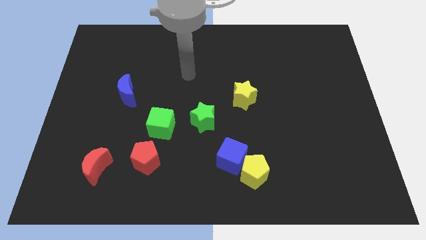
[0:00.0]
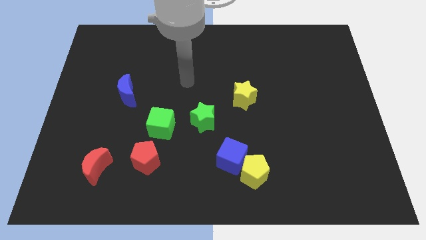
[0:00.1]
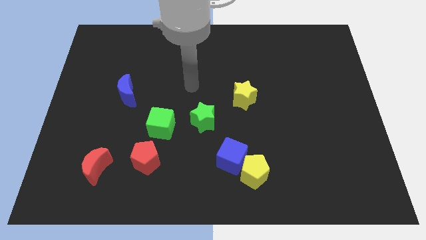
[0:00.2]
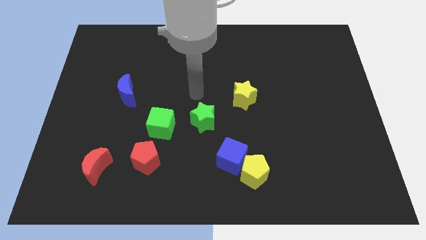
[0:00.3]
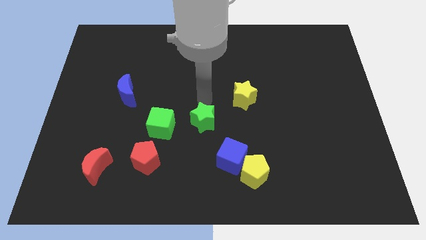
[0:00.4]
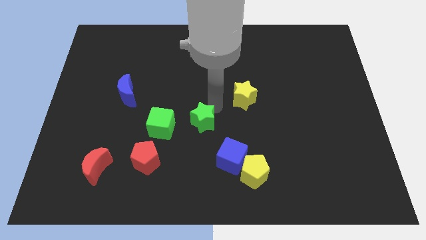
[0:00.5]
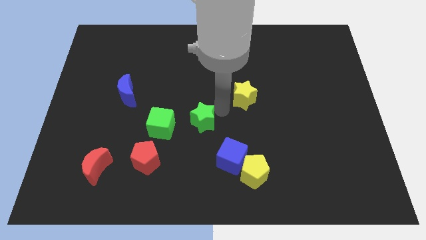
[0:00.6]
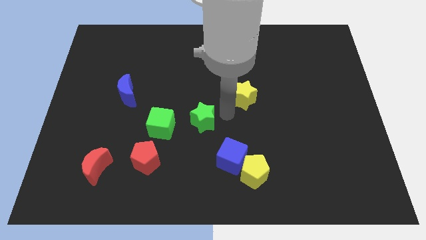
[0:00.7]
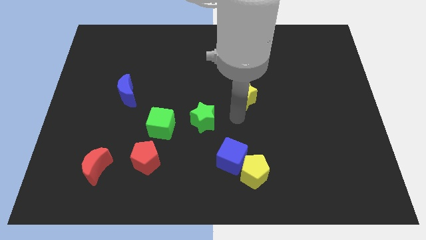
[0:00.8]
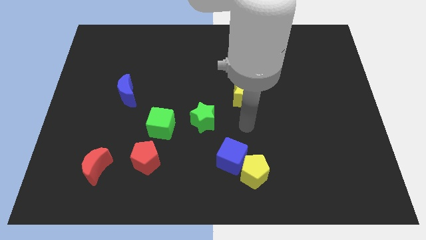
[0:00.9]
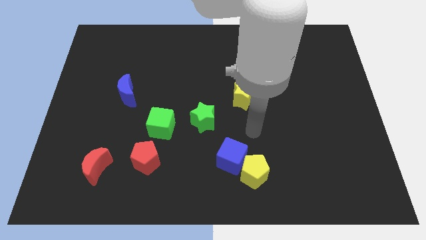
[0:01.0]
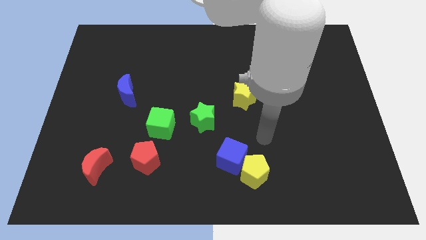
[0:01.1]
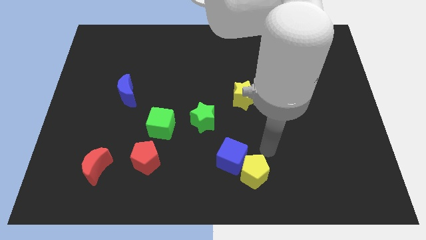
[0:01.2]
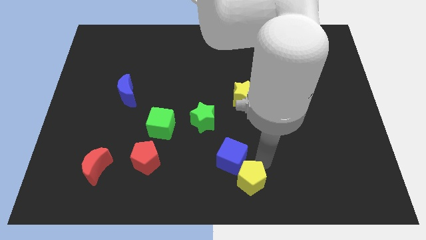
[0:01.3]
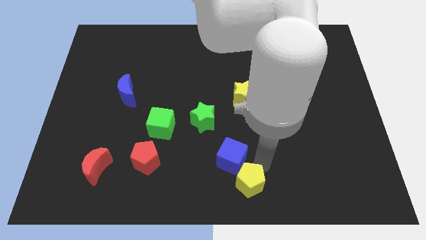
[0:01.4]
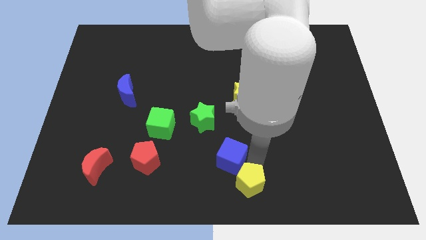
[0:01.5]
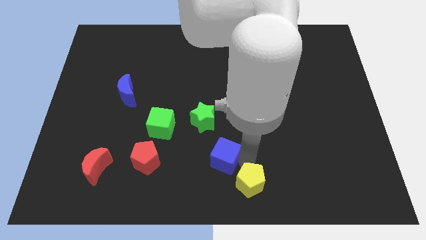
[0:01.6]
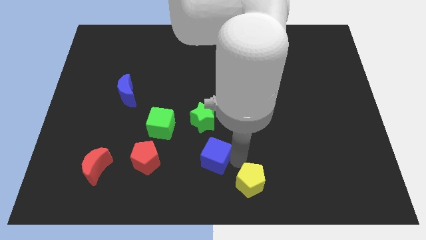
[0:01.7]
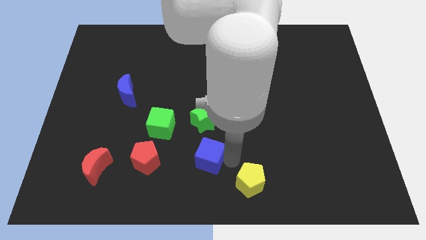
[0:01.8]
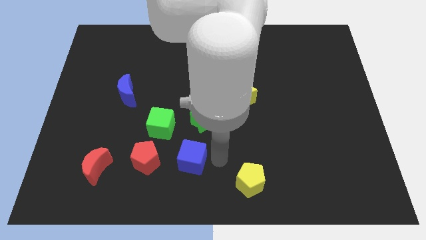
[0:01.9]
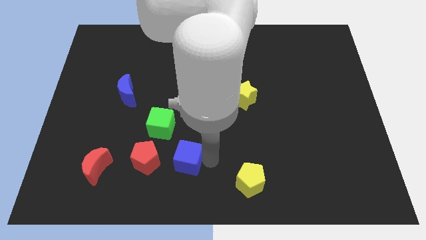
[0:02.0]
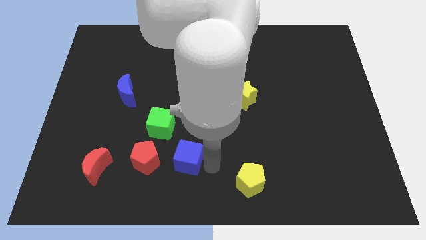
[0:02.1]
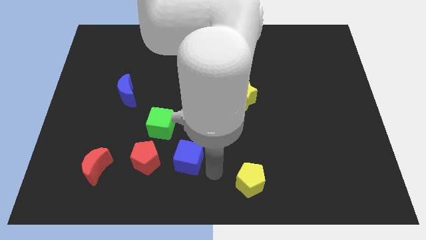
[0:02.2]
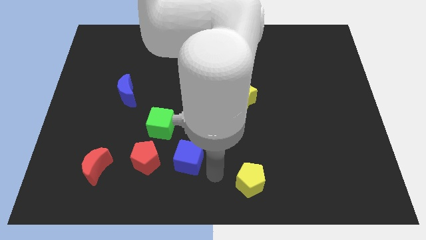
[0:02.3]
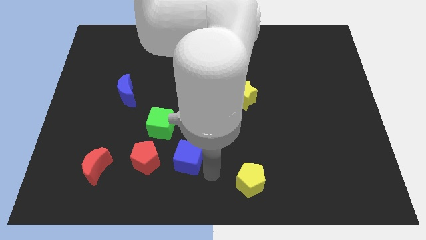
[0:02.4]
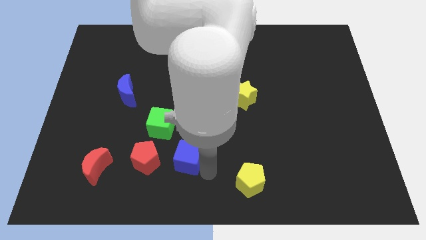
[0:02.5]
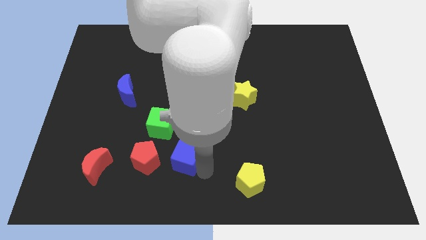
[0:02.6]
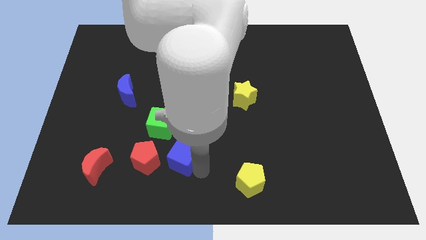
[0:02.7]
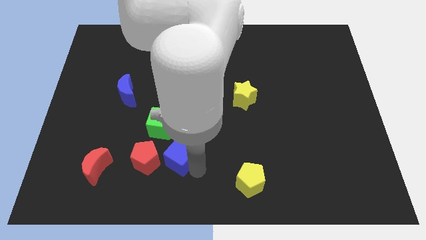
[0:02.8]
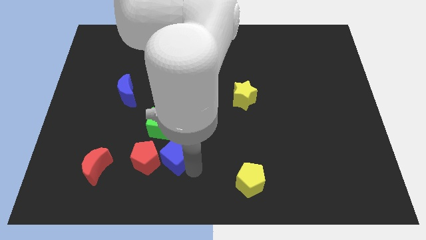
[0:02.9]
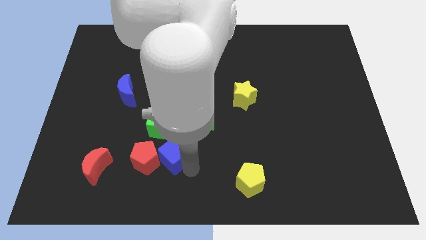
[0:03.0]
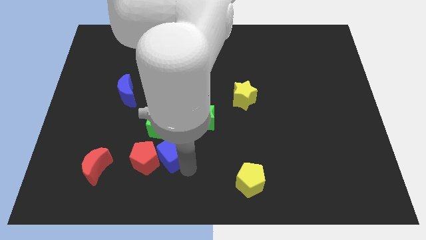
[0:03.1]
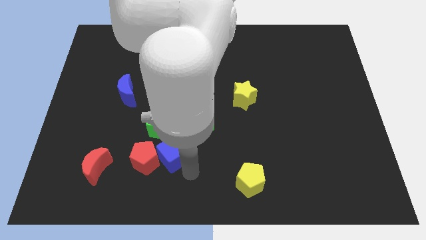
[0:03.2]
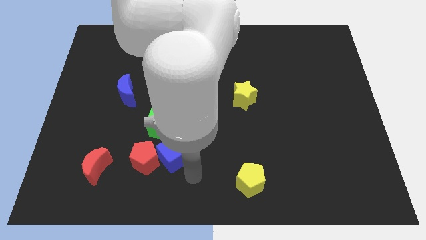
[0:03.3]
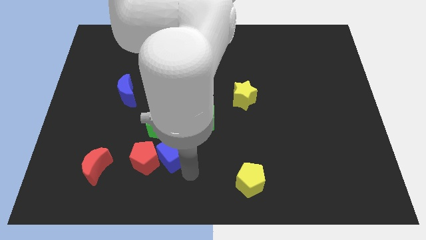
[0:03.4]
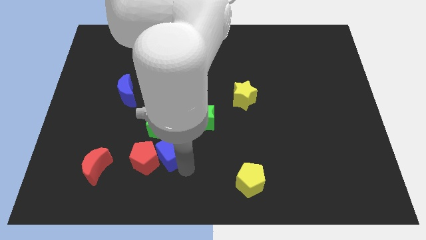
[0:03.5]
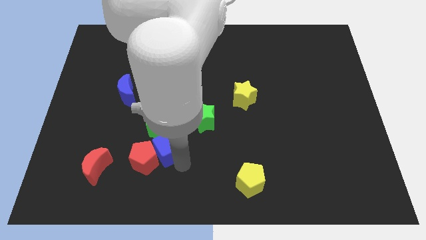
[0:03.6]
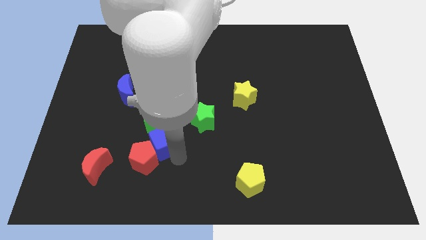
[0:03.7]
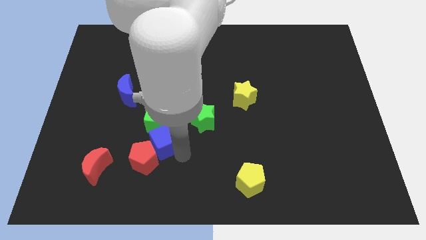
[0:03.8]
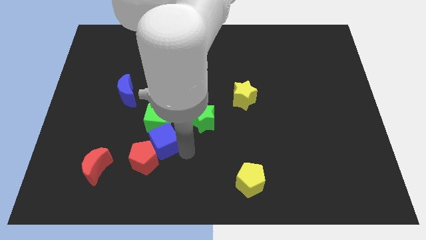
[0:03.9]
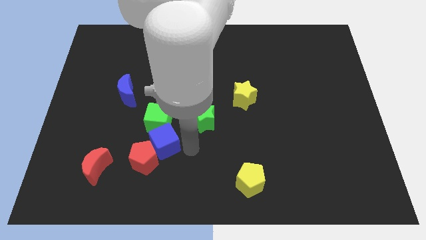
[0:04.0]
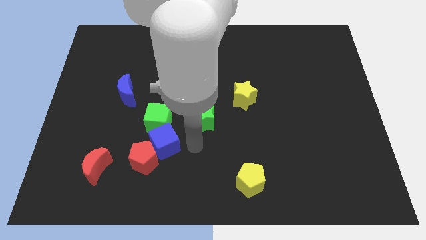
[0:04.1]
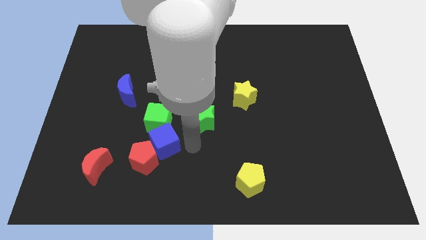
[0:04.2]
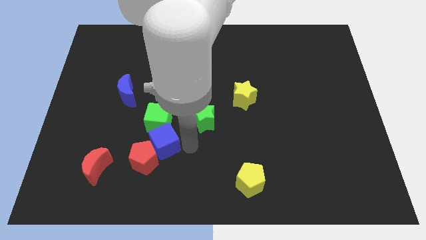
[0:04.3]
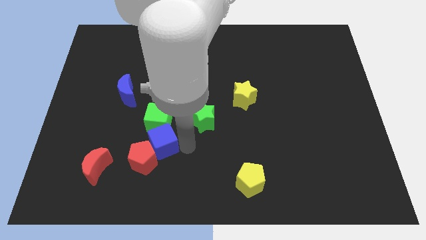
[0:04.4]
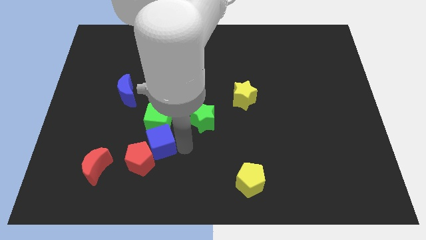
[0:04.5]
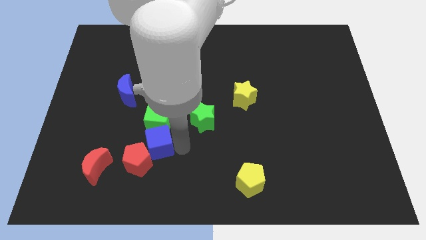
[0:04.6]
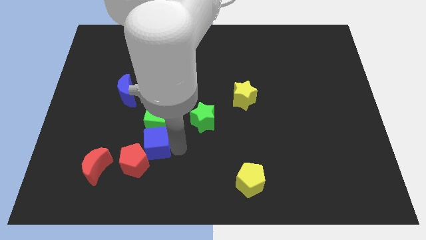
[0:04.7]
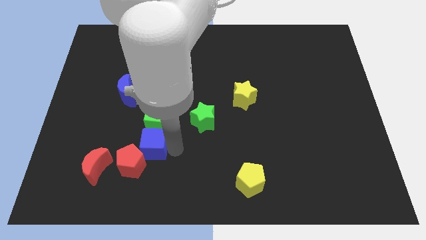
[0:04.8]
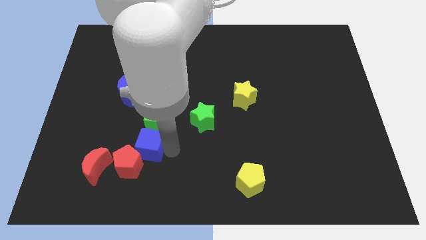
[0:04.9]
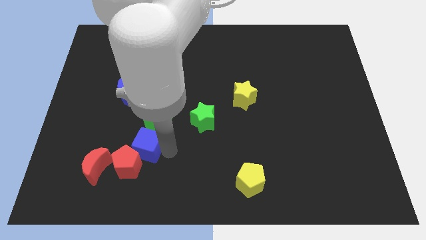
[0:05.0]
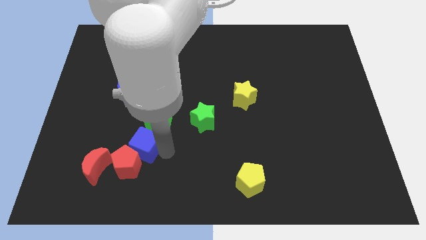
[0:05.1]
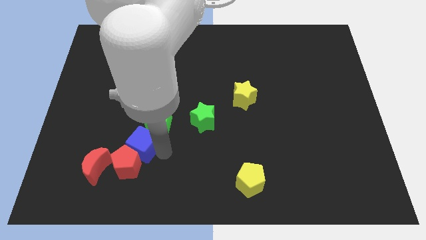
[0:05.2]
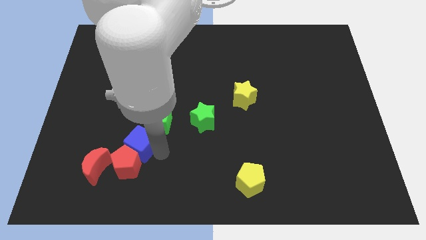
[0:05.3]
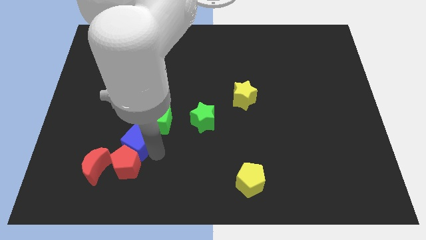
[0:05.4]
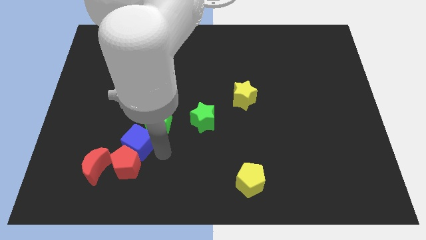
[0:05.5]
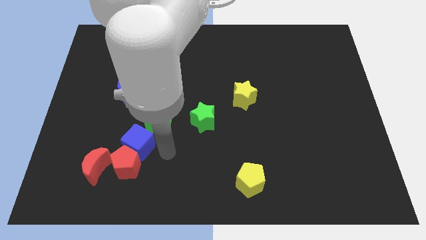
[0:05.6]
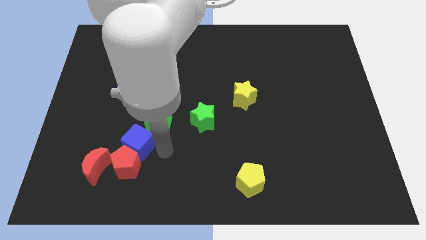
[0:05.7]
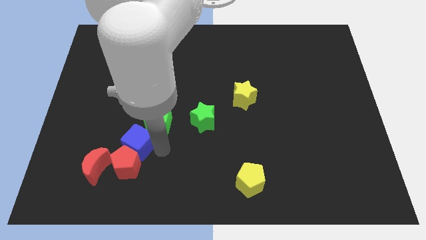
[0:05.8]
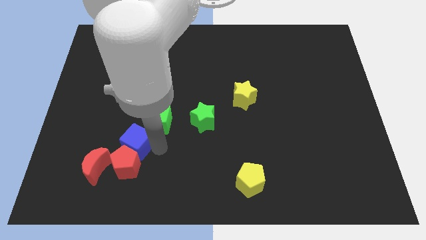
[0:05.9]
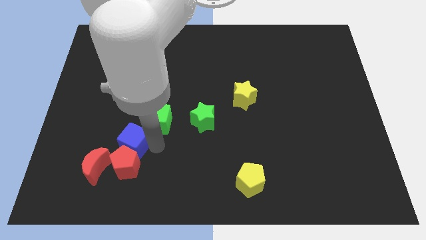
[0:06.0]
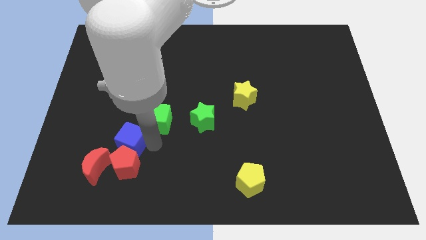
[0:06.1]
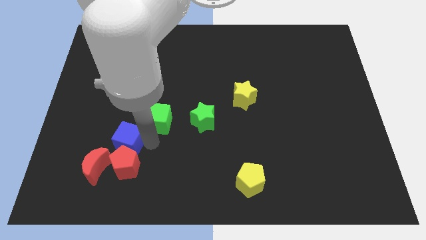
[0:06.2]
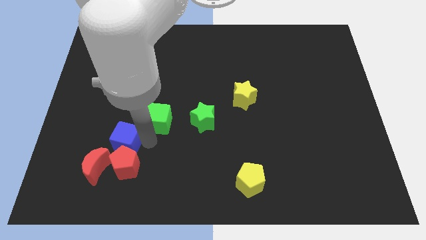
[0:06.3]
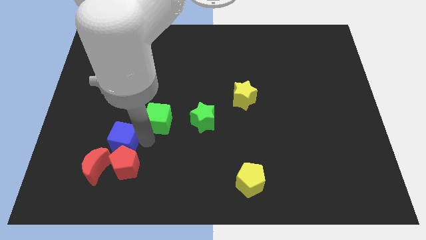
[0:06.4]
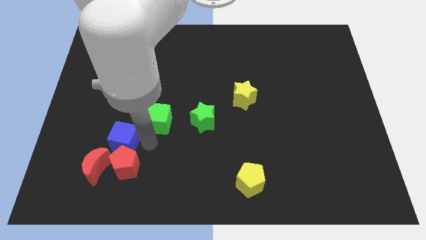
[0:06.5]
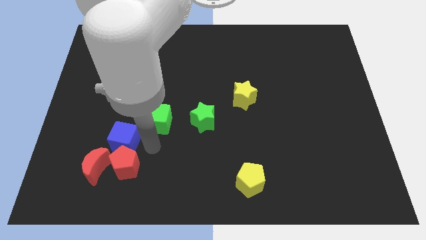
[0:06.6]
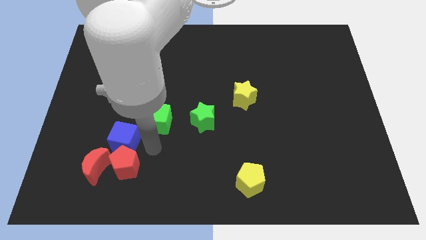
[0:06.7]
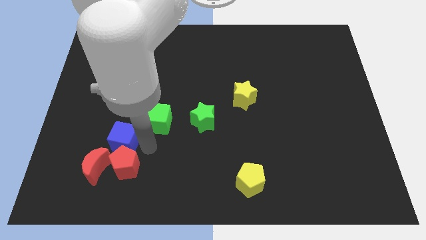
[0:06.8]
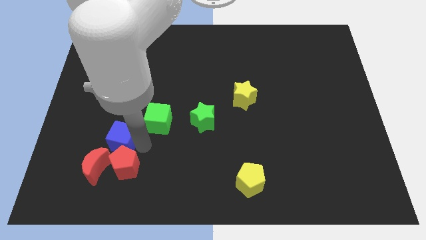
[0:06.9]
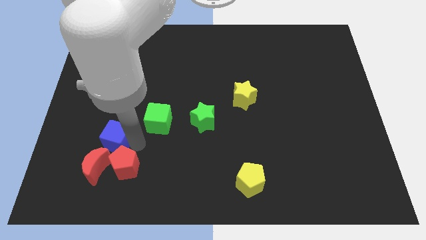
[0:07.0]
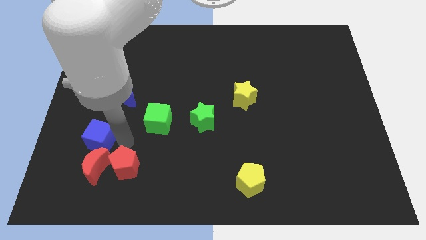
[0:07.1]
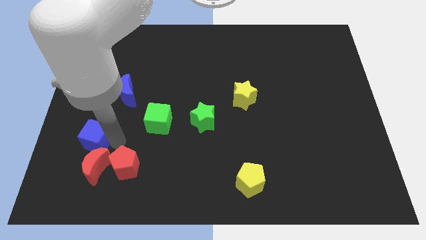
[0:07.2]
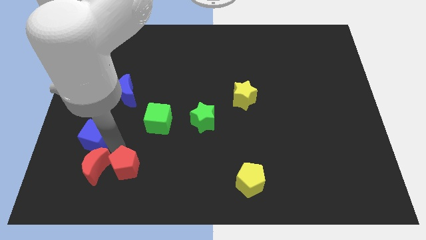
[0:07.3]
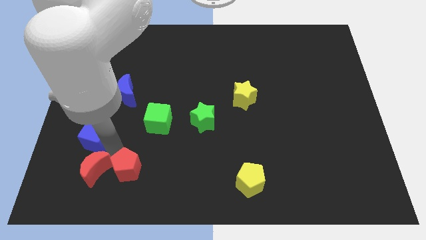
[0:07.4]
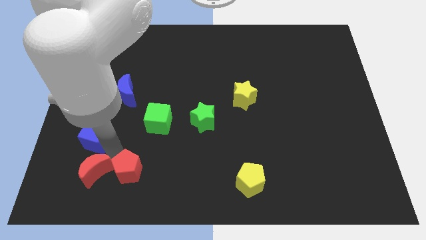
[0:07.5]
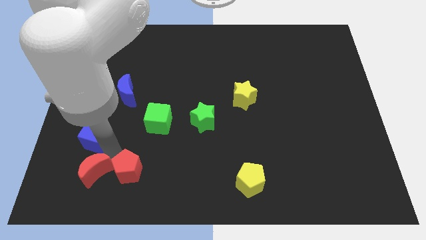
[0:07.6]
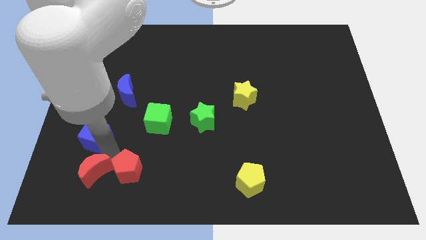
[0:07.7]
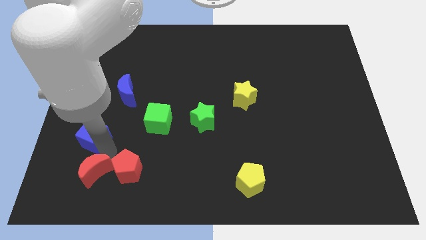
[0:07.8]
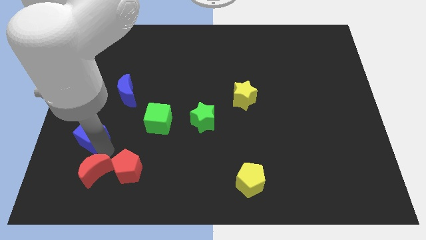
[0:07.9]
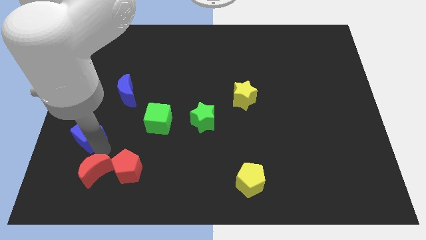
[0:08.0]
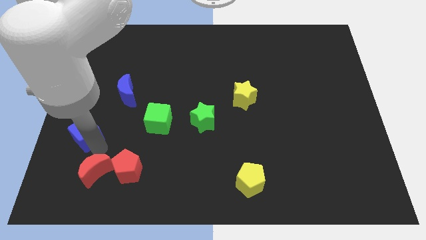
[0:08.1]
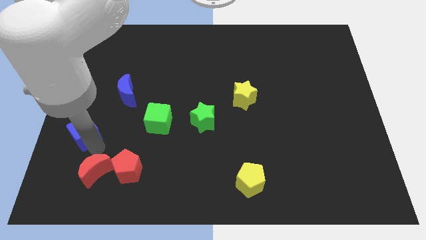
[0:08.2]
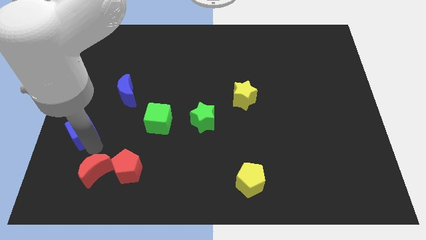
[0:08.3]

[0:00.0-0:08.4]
slide the blue cube to the center left
